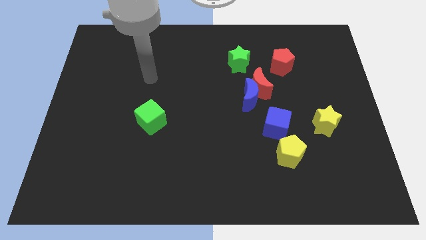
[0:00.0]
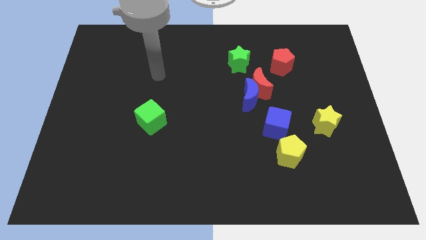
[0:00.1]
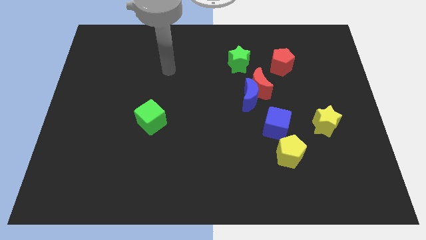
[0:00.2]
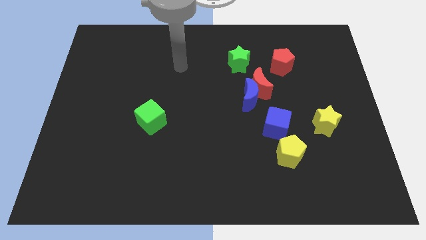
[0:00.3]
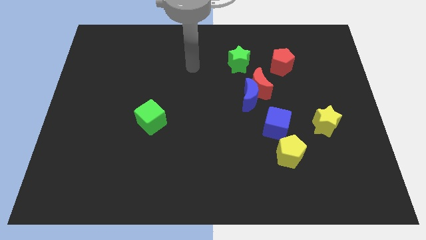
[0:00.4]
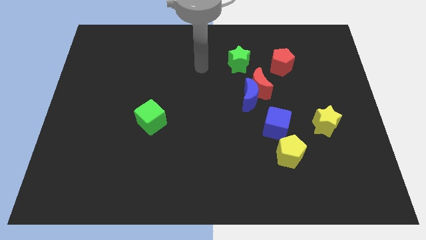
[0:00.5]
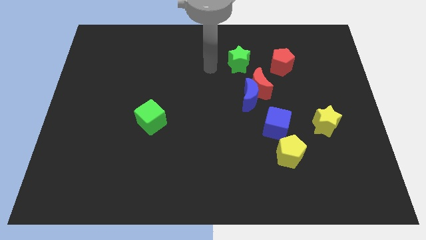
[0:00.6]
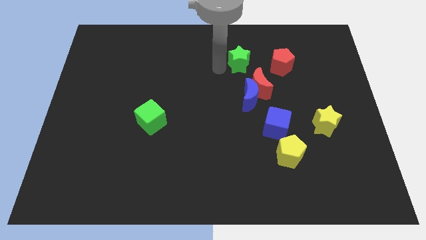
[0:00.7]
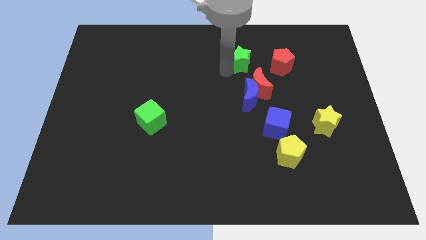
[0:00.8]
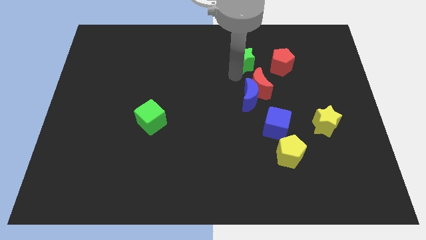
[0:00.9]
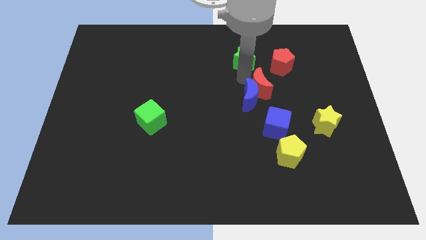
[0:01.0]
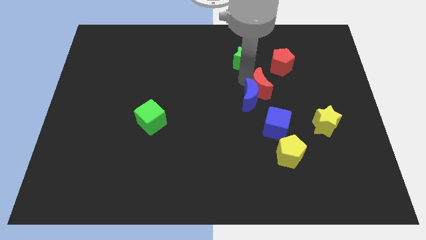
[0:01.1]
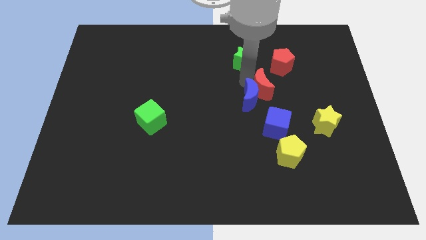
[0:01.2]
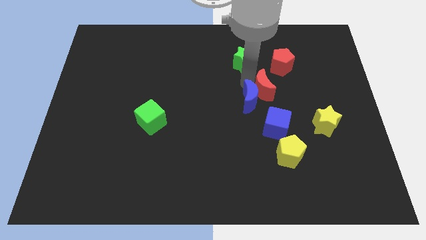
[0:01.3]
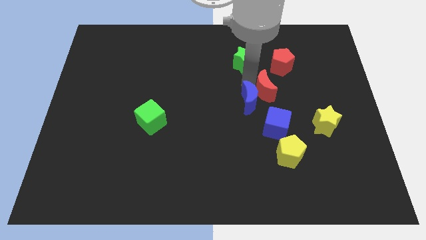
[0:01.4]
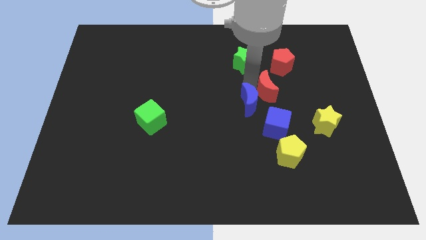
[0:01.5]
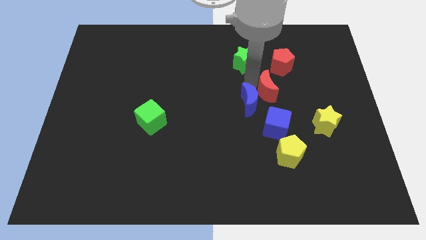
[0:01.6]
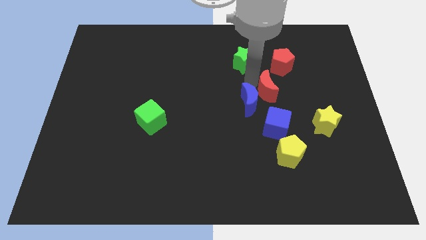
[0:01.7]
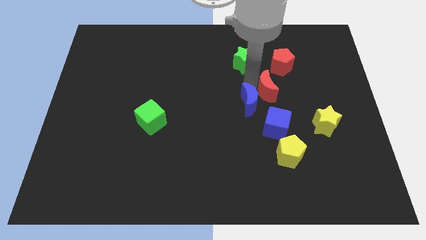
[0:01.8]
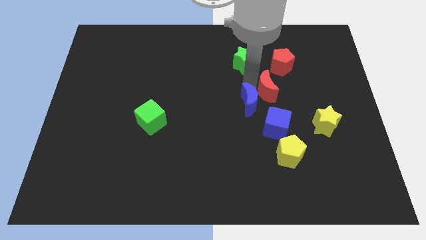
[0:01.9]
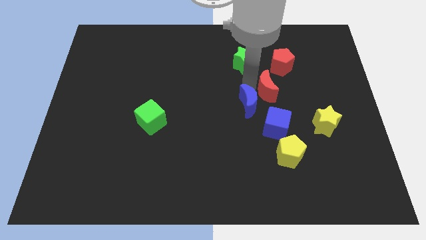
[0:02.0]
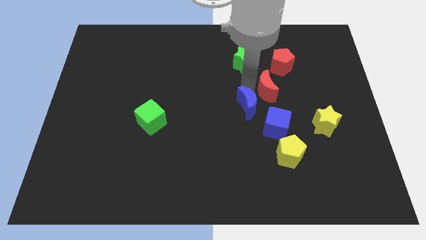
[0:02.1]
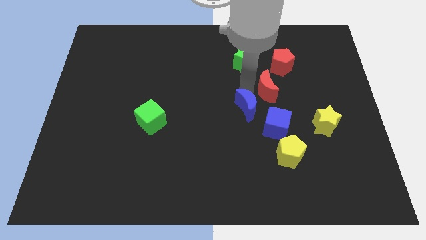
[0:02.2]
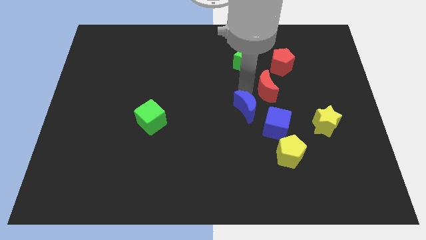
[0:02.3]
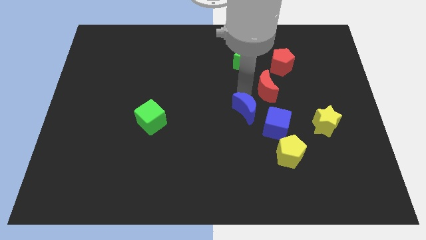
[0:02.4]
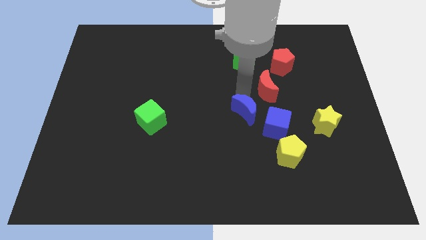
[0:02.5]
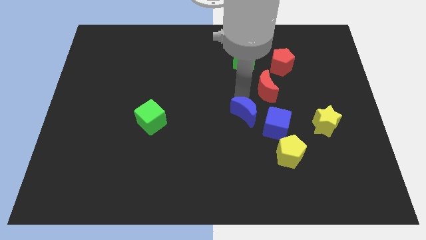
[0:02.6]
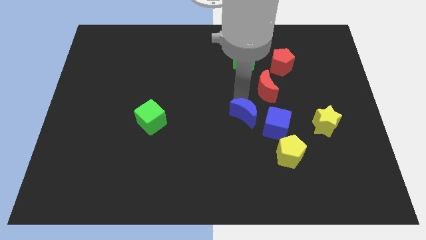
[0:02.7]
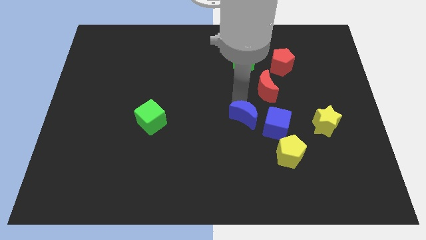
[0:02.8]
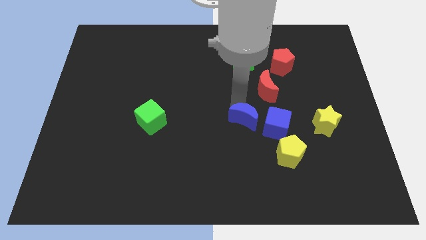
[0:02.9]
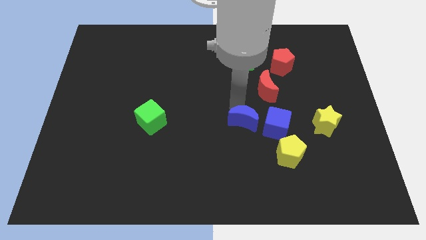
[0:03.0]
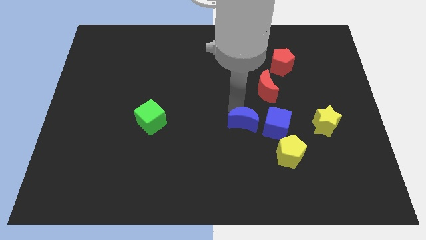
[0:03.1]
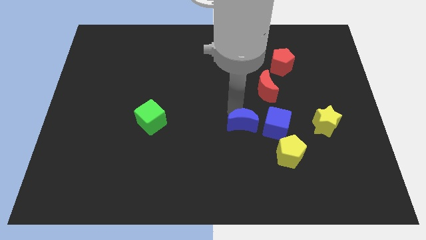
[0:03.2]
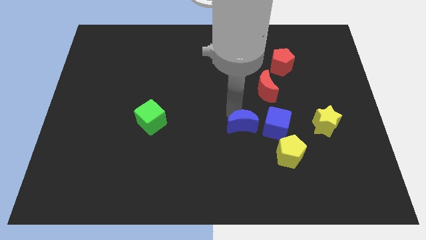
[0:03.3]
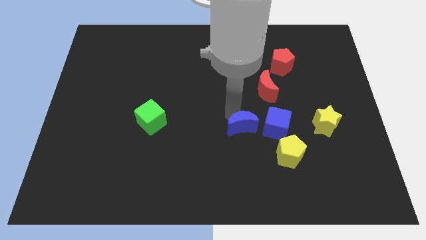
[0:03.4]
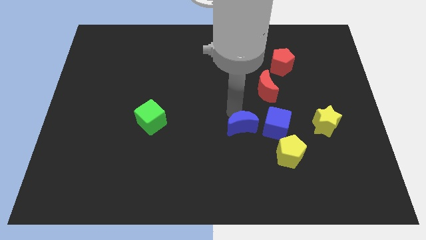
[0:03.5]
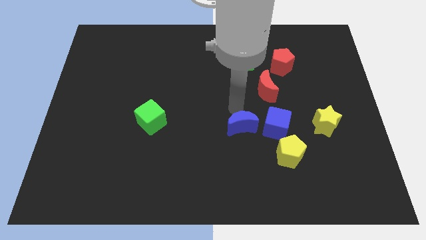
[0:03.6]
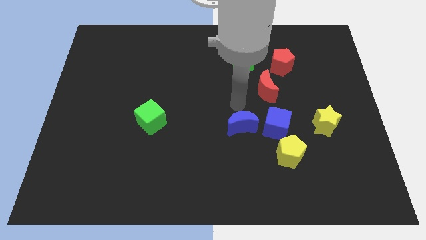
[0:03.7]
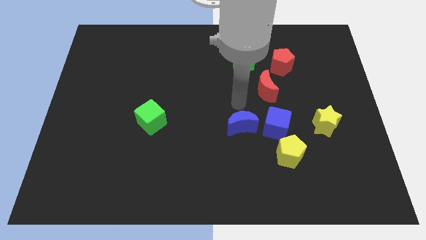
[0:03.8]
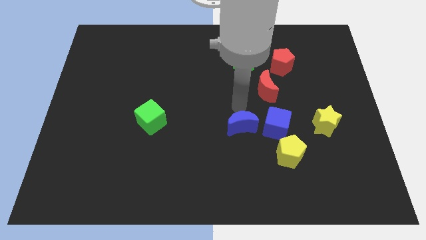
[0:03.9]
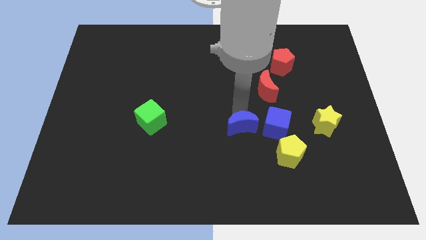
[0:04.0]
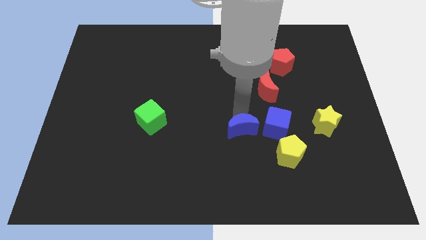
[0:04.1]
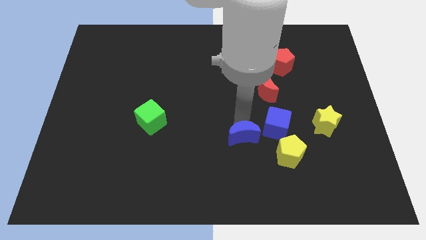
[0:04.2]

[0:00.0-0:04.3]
slide the blue moon left of the yellow pentagon

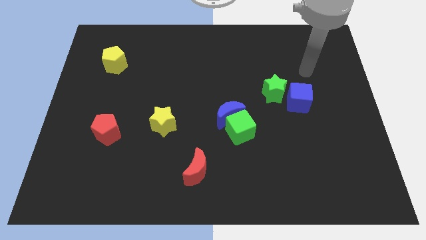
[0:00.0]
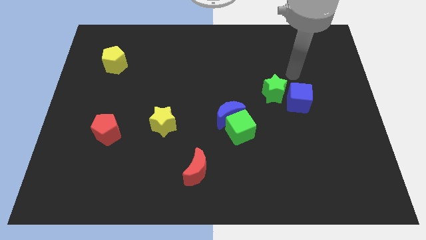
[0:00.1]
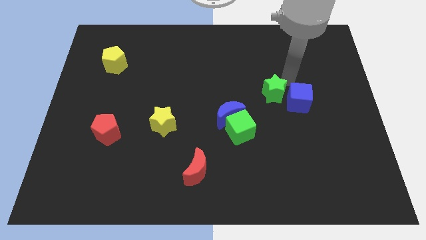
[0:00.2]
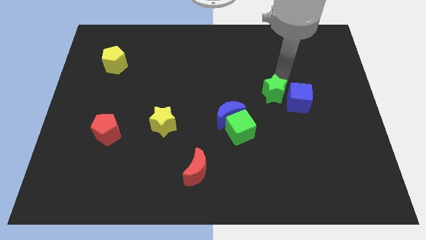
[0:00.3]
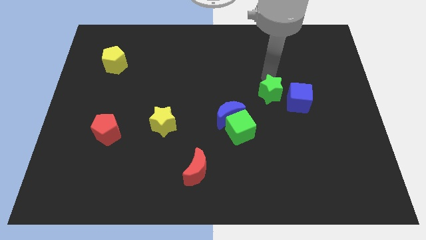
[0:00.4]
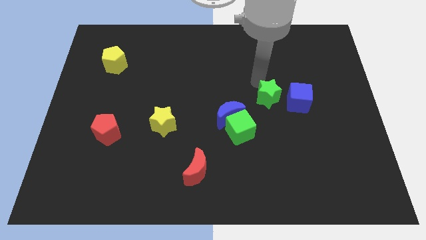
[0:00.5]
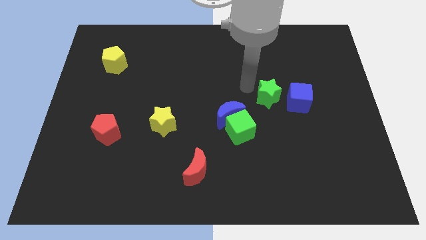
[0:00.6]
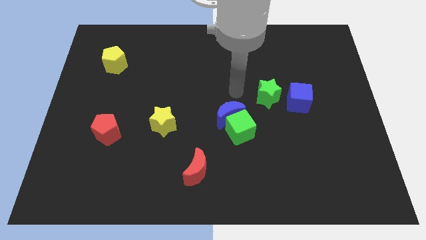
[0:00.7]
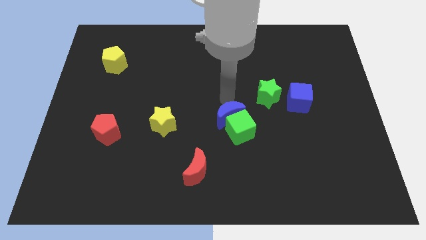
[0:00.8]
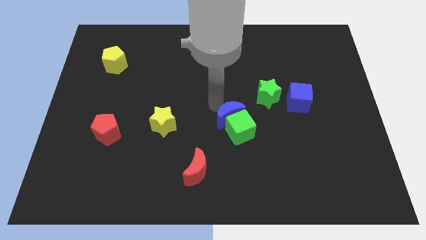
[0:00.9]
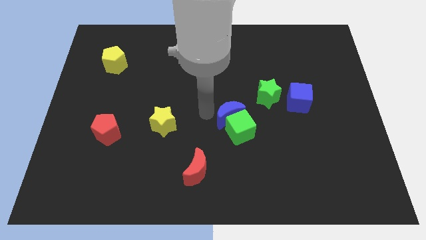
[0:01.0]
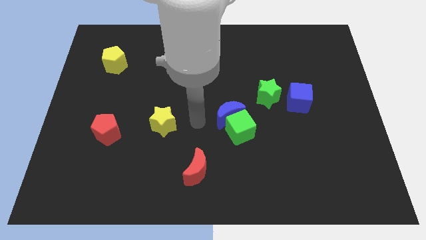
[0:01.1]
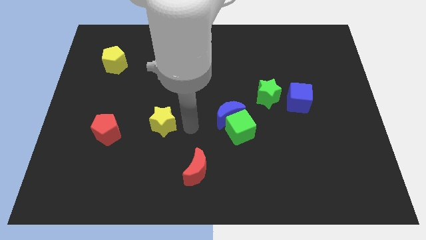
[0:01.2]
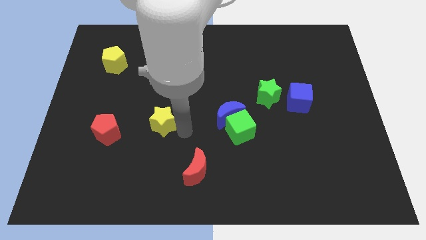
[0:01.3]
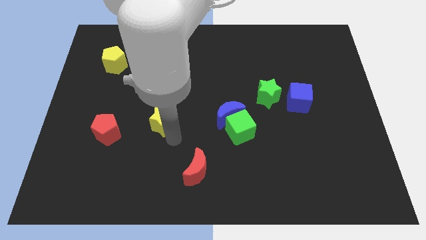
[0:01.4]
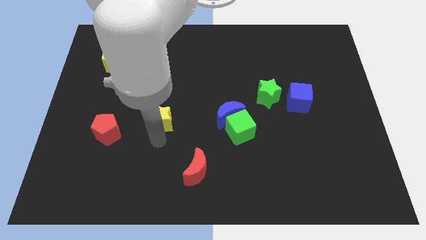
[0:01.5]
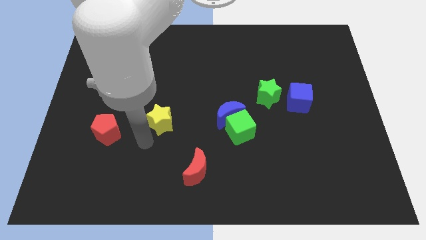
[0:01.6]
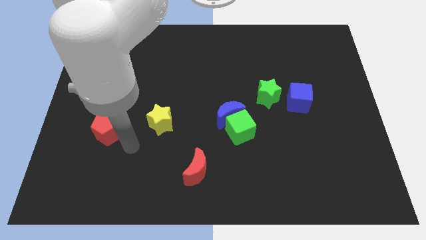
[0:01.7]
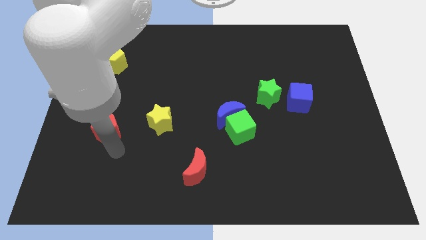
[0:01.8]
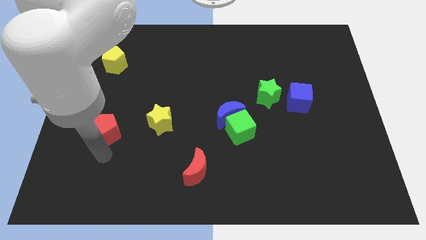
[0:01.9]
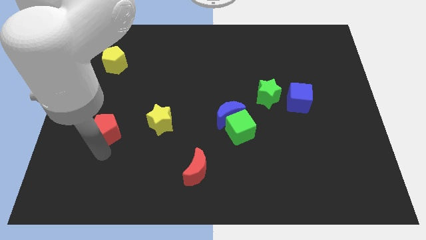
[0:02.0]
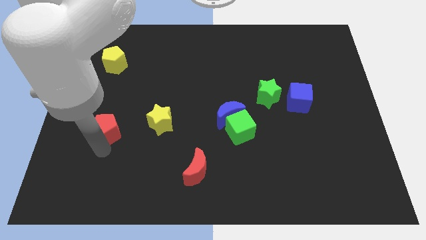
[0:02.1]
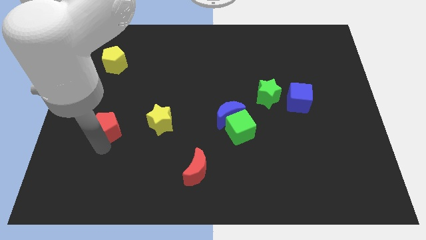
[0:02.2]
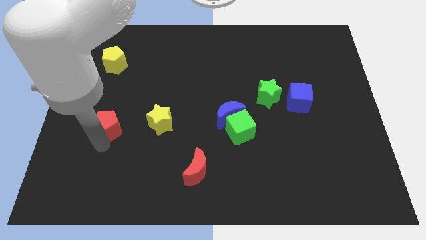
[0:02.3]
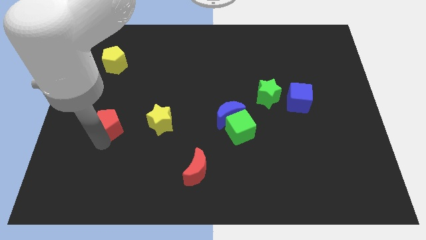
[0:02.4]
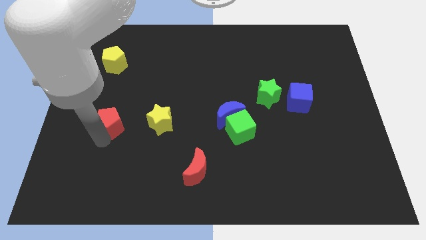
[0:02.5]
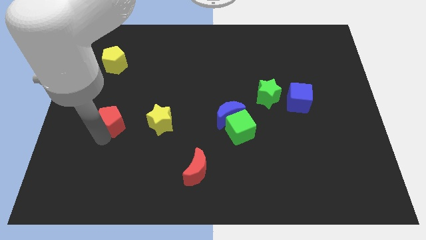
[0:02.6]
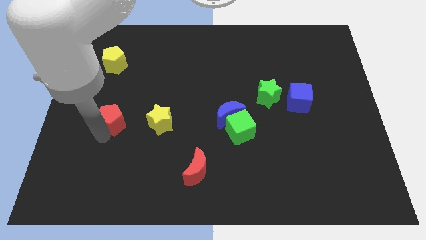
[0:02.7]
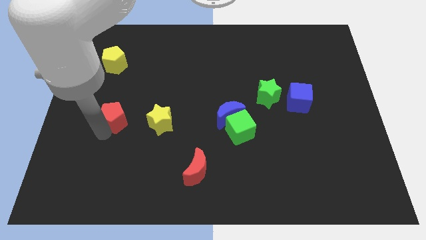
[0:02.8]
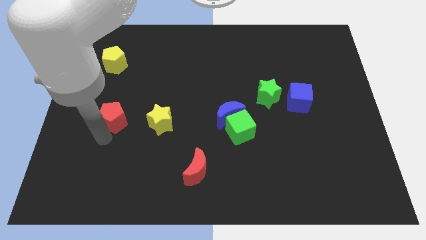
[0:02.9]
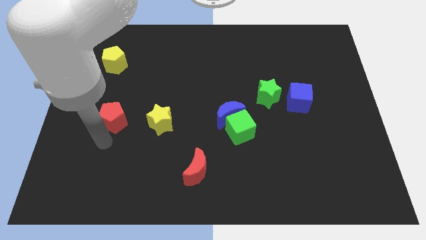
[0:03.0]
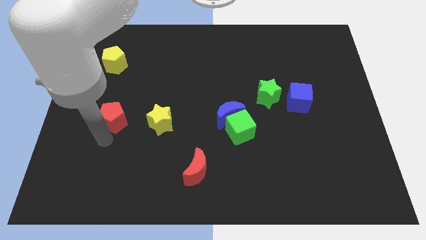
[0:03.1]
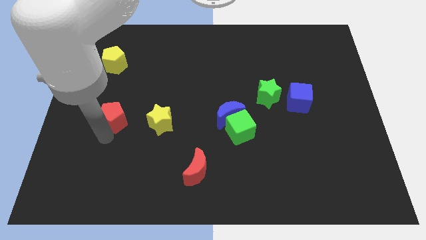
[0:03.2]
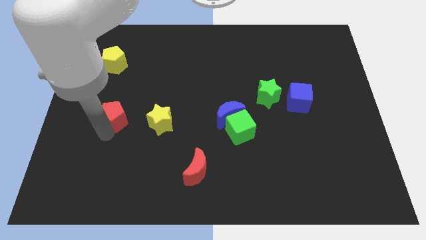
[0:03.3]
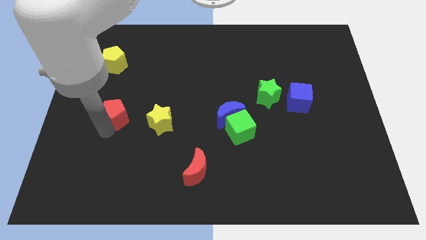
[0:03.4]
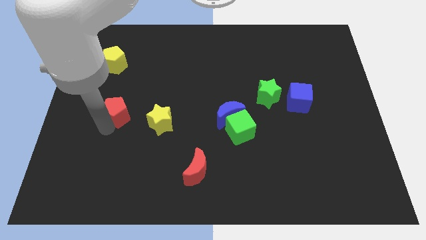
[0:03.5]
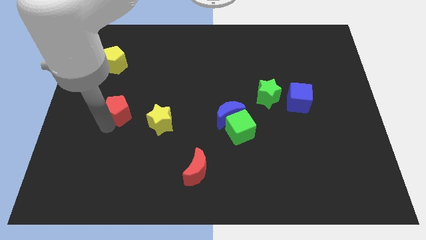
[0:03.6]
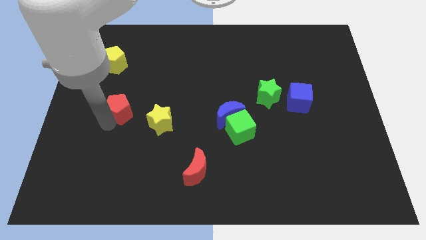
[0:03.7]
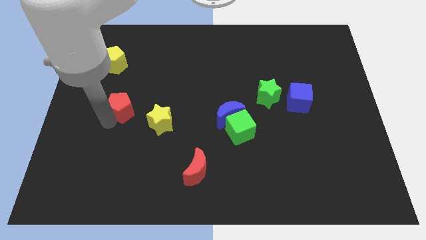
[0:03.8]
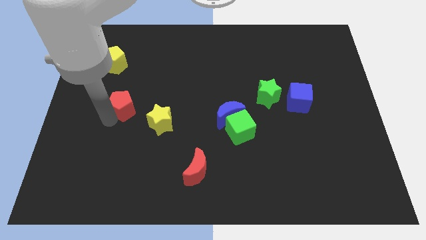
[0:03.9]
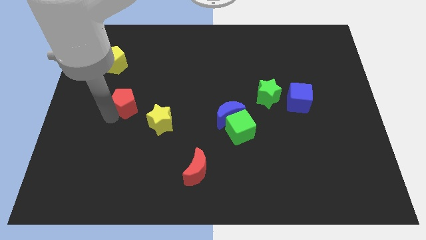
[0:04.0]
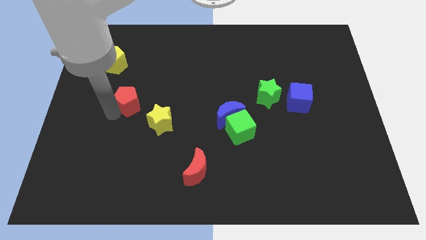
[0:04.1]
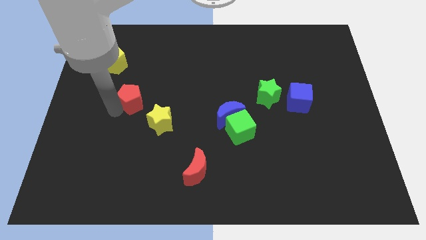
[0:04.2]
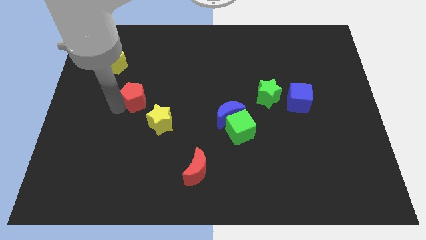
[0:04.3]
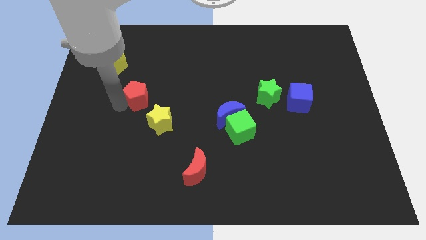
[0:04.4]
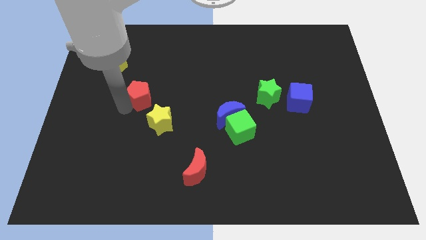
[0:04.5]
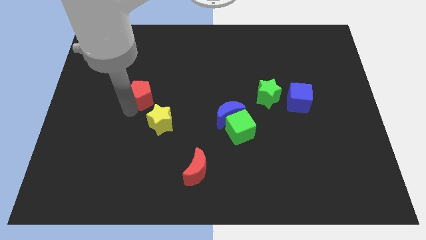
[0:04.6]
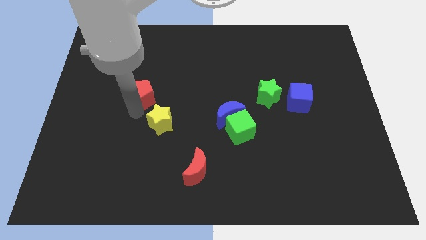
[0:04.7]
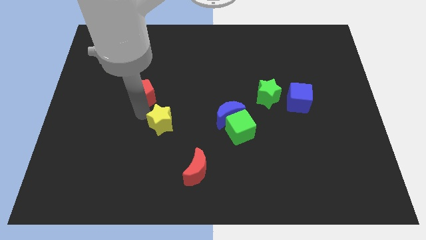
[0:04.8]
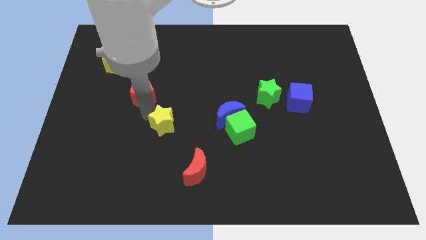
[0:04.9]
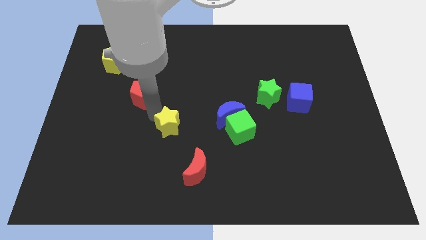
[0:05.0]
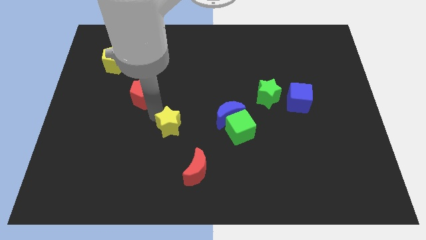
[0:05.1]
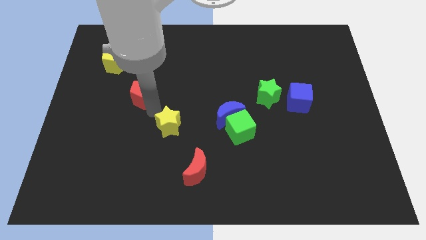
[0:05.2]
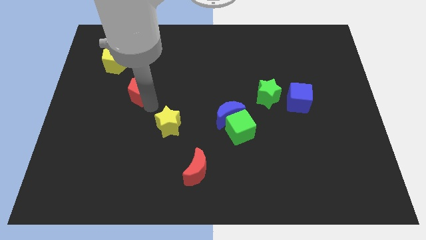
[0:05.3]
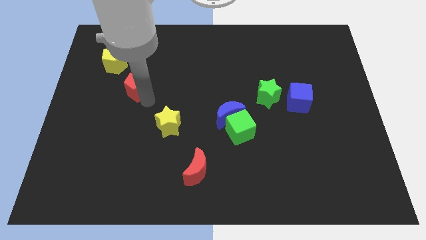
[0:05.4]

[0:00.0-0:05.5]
move the red pentagon to the bottom right of the yellow pentagon
